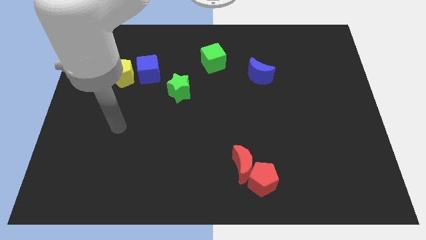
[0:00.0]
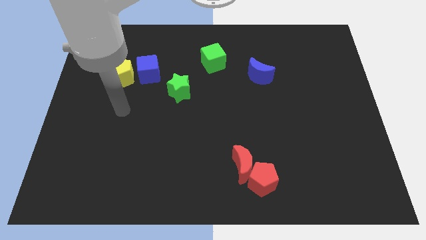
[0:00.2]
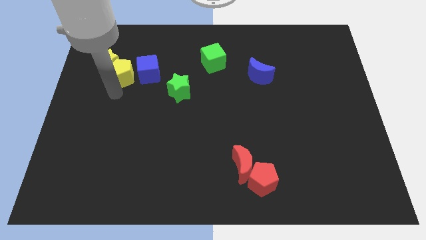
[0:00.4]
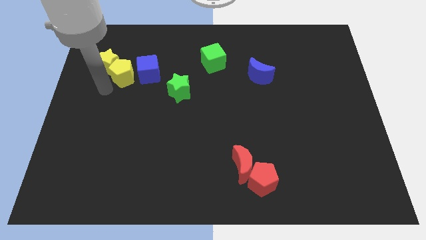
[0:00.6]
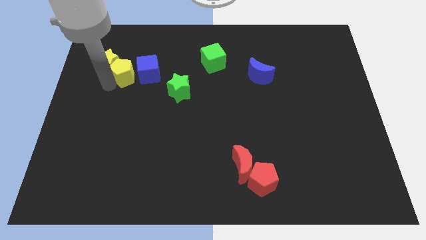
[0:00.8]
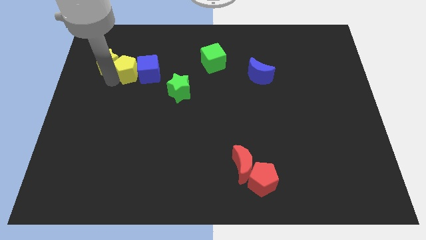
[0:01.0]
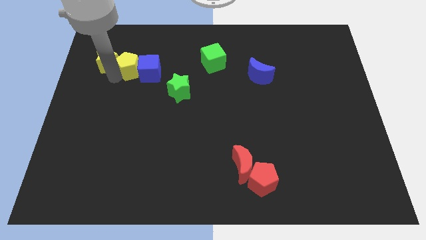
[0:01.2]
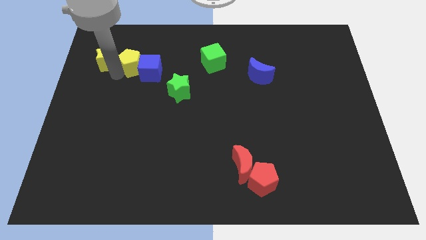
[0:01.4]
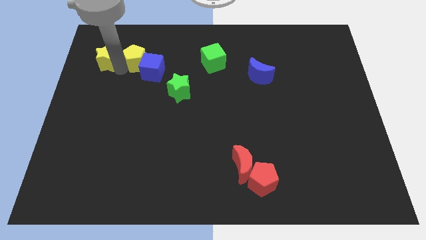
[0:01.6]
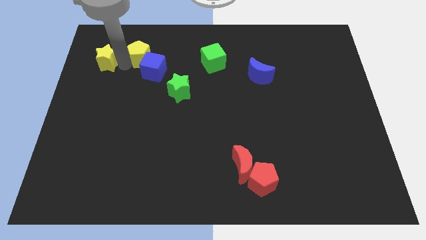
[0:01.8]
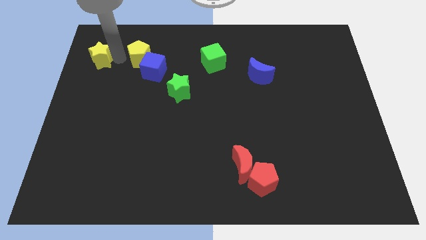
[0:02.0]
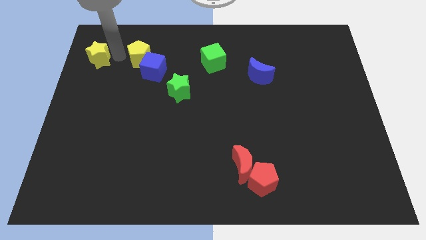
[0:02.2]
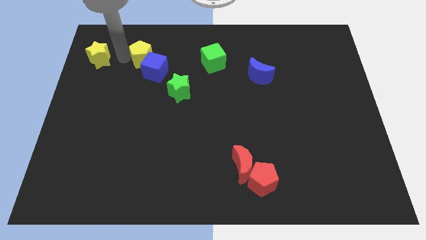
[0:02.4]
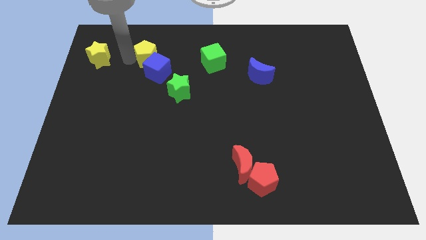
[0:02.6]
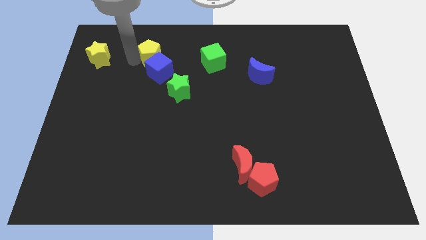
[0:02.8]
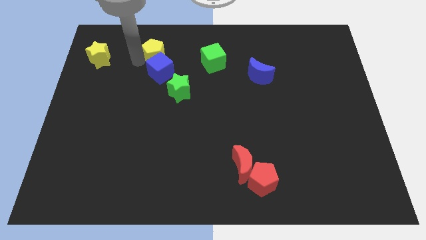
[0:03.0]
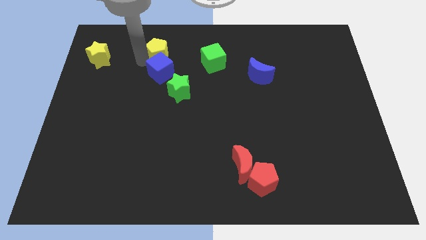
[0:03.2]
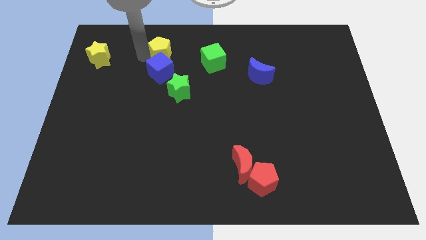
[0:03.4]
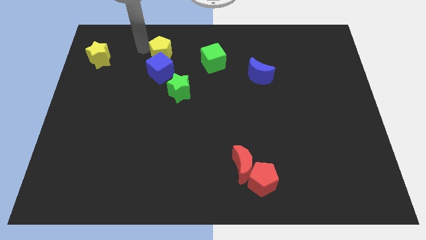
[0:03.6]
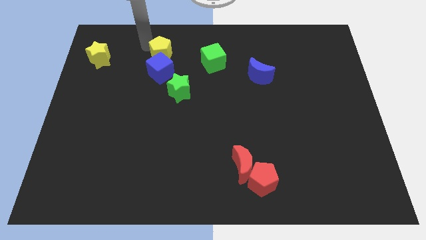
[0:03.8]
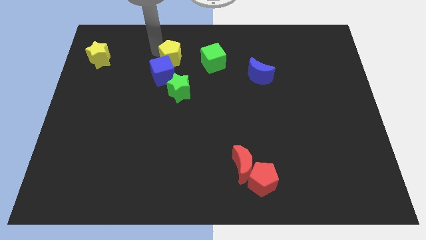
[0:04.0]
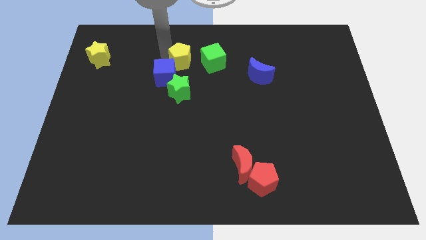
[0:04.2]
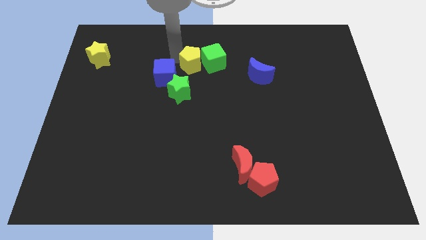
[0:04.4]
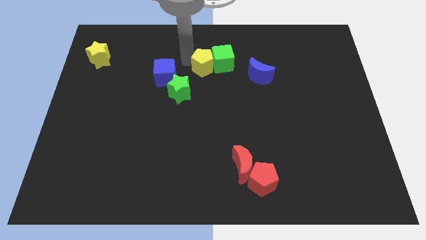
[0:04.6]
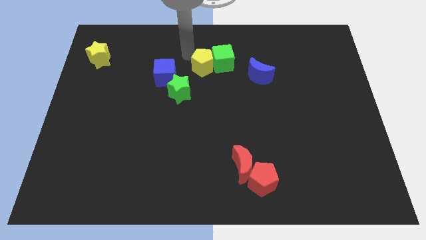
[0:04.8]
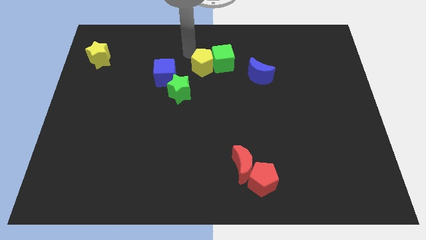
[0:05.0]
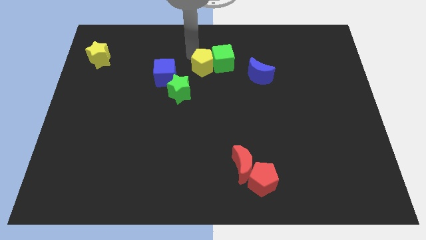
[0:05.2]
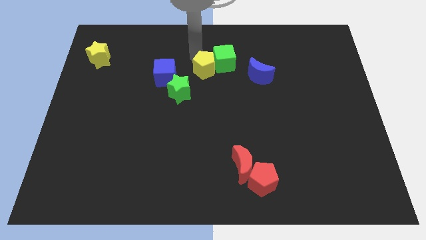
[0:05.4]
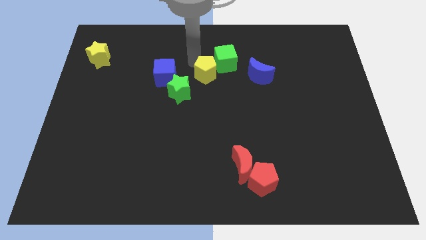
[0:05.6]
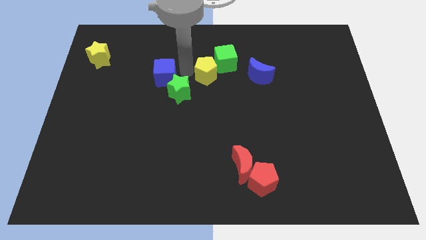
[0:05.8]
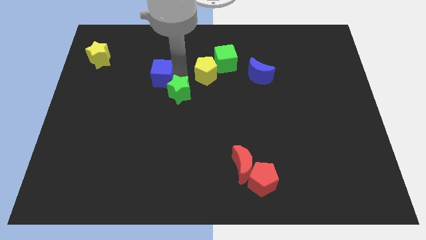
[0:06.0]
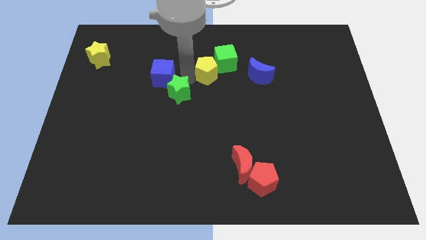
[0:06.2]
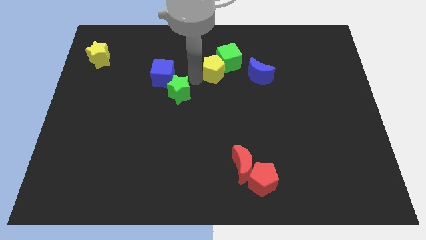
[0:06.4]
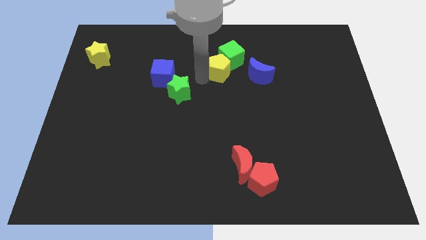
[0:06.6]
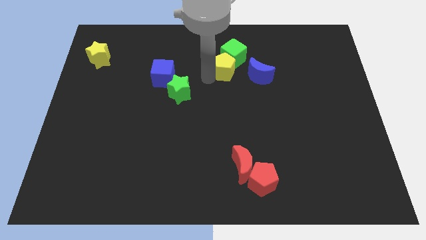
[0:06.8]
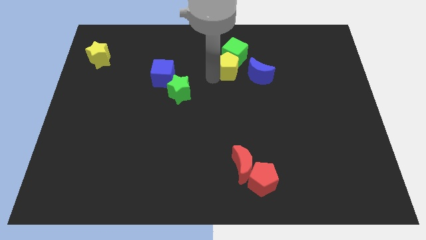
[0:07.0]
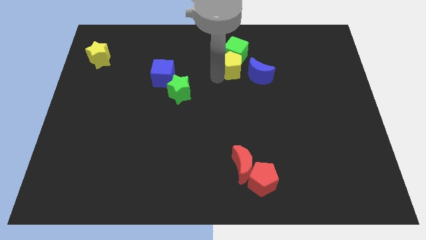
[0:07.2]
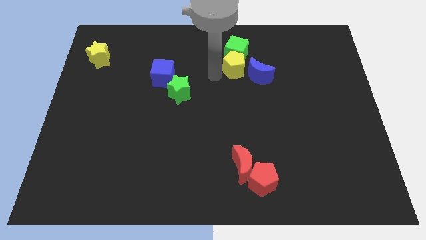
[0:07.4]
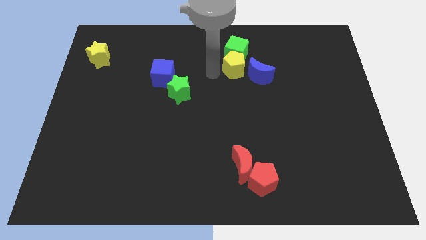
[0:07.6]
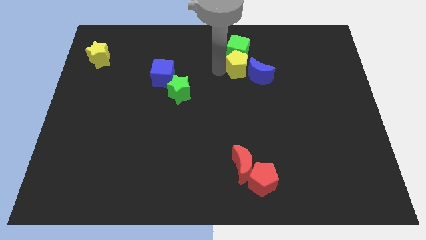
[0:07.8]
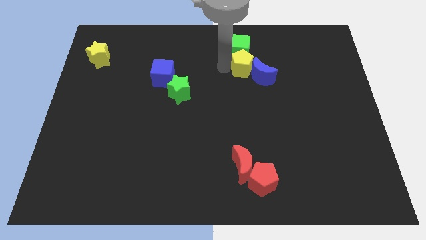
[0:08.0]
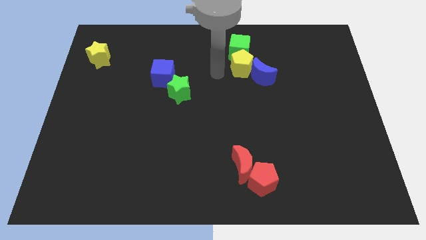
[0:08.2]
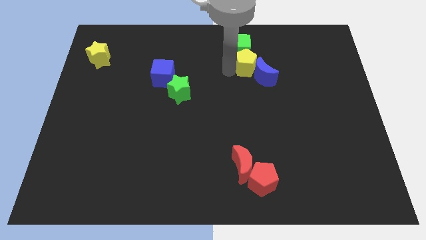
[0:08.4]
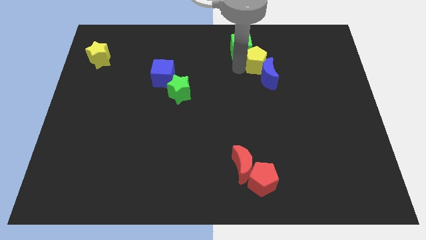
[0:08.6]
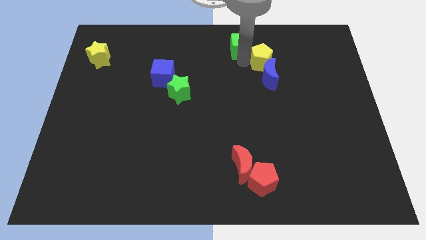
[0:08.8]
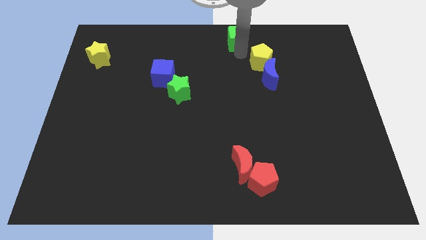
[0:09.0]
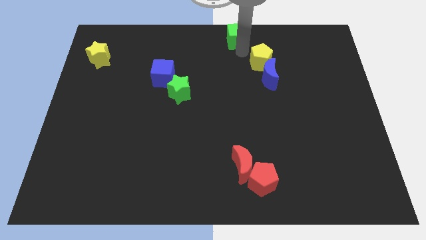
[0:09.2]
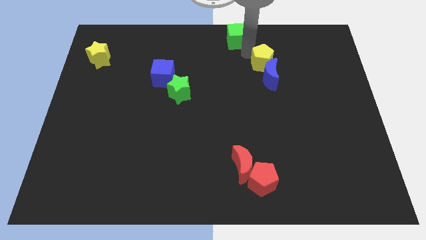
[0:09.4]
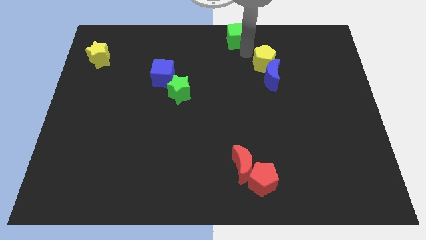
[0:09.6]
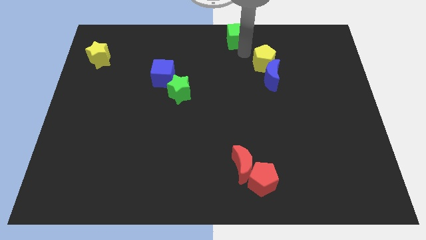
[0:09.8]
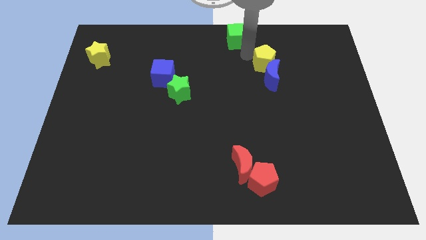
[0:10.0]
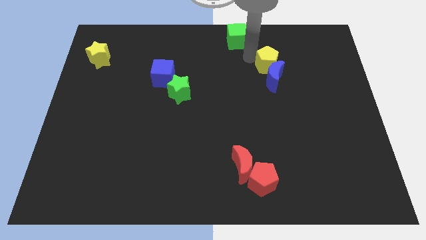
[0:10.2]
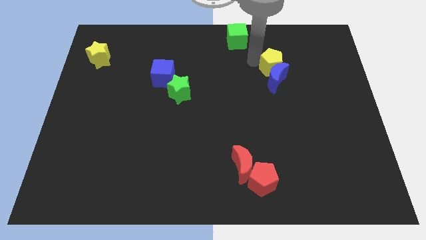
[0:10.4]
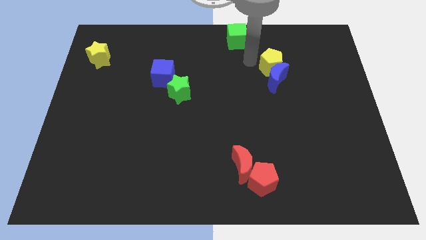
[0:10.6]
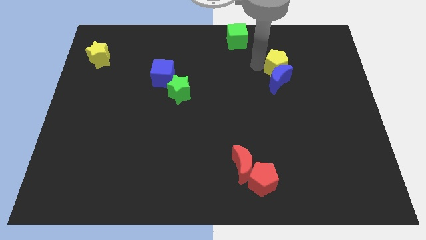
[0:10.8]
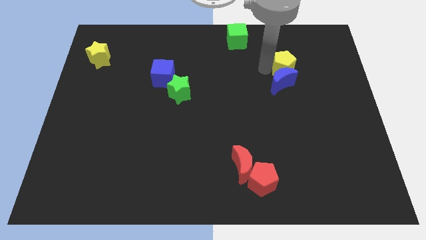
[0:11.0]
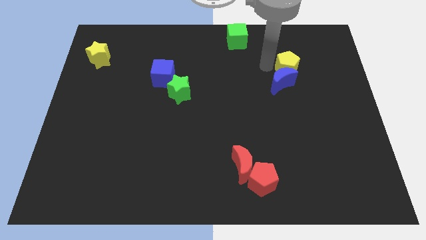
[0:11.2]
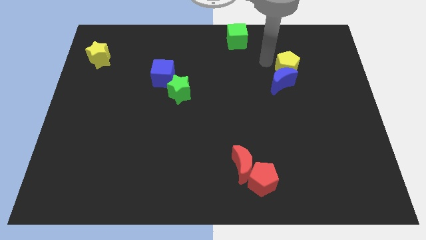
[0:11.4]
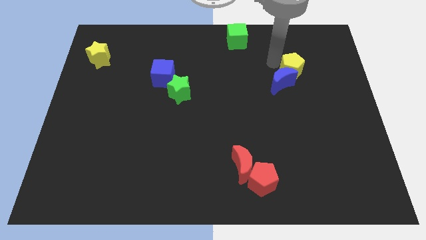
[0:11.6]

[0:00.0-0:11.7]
put the yellow pentagon to the right side of the blue moon

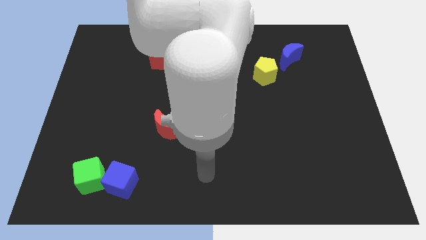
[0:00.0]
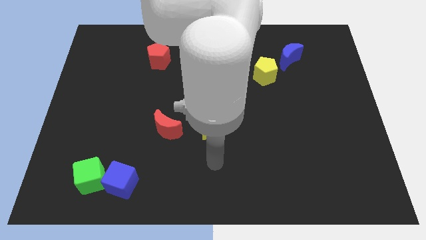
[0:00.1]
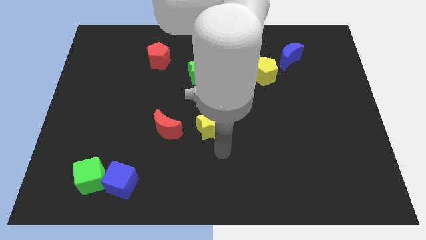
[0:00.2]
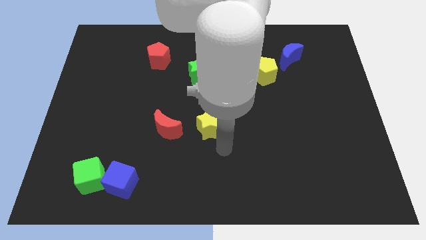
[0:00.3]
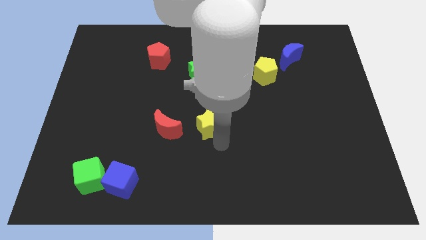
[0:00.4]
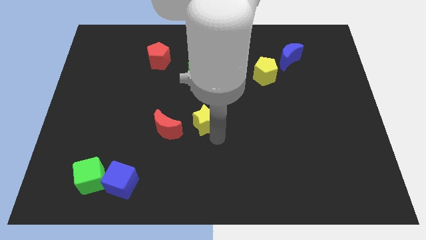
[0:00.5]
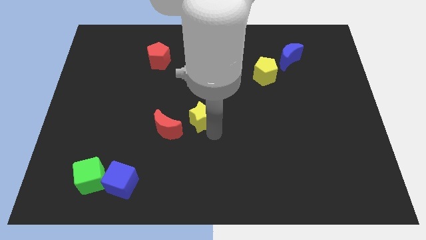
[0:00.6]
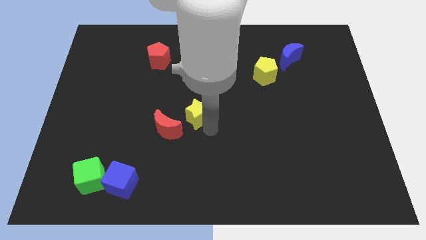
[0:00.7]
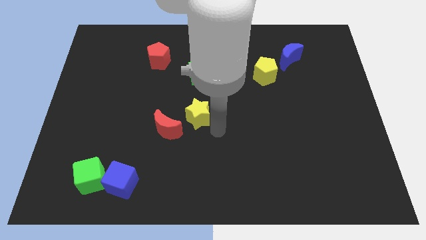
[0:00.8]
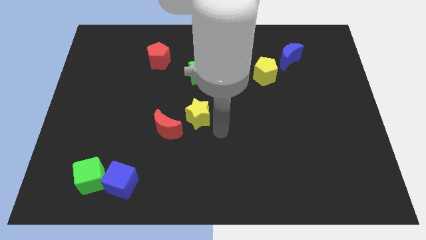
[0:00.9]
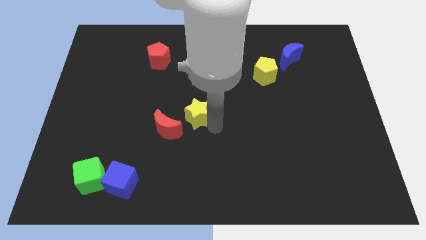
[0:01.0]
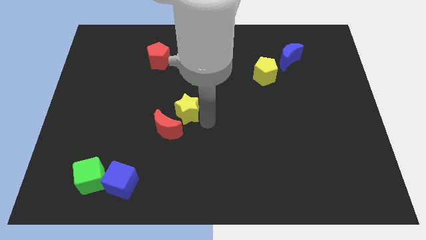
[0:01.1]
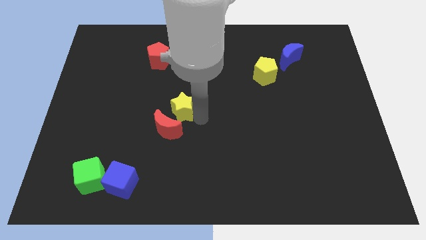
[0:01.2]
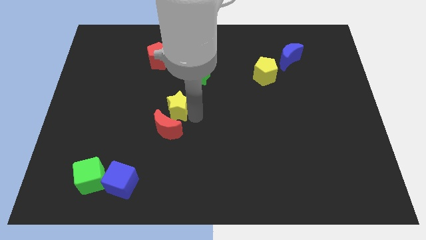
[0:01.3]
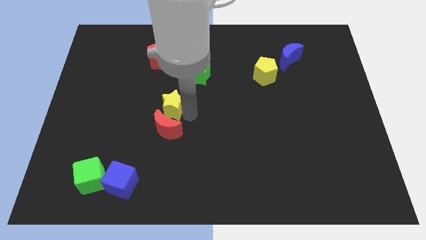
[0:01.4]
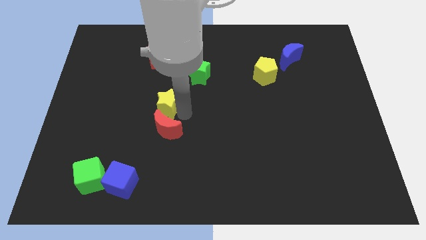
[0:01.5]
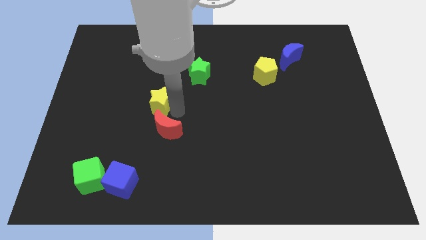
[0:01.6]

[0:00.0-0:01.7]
move the yellow star to the bottom of the red pentagon
